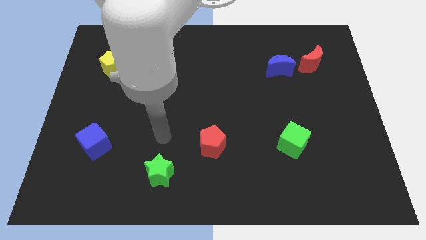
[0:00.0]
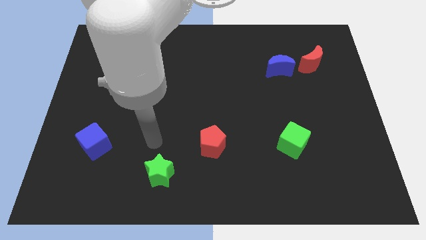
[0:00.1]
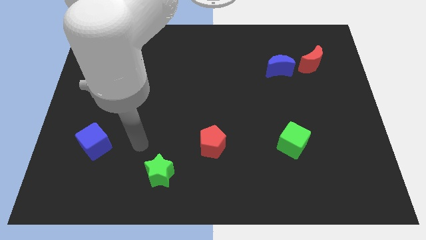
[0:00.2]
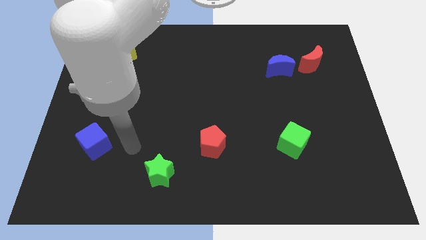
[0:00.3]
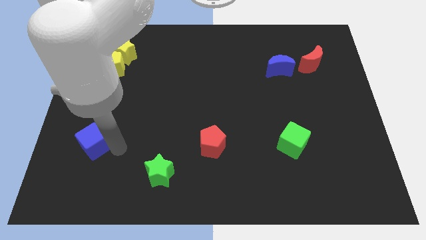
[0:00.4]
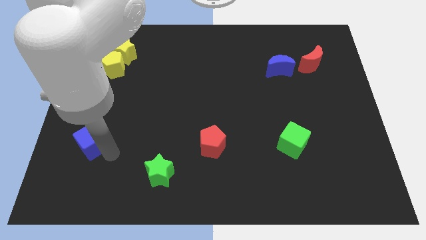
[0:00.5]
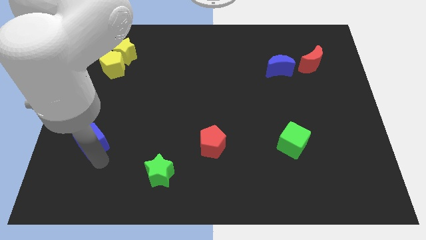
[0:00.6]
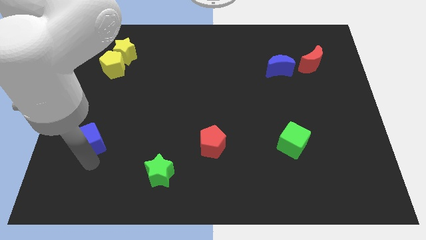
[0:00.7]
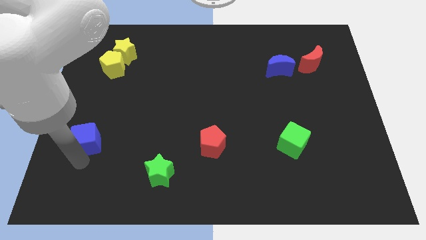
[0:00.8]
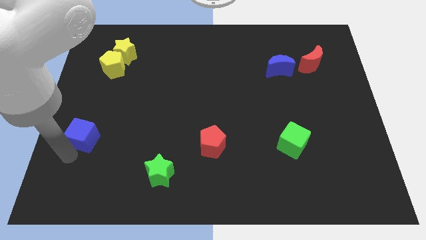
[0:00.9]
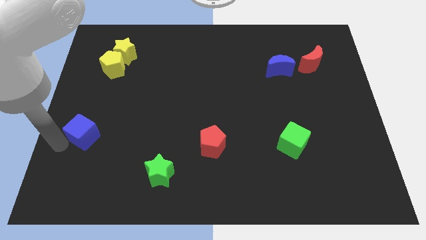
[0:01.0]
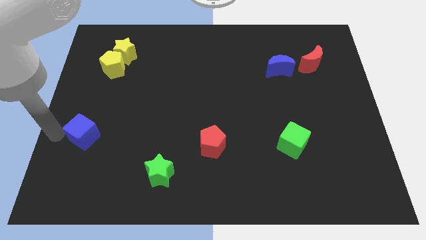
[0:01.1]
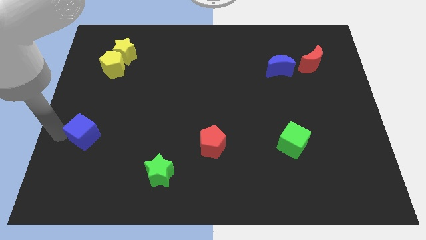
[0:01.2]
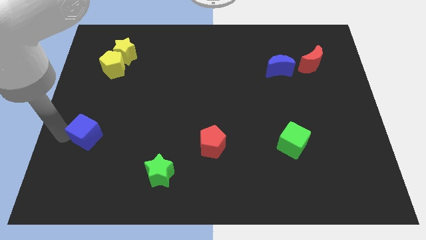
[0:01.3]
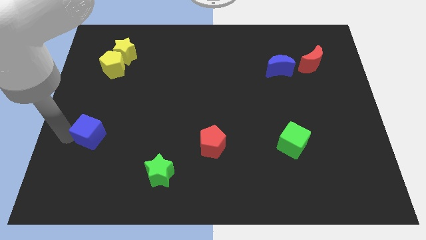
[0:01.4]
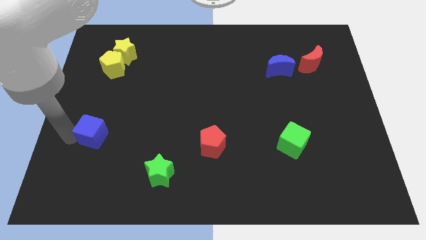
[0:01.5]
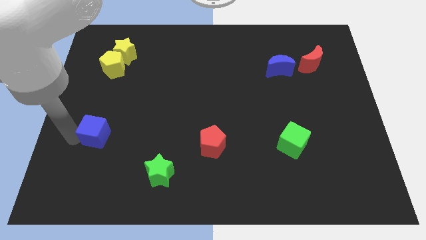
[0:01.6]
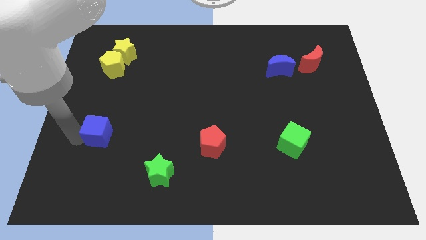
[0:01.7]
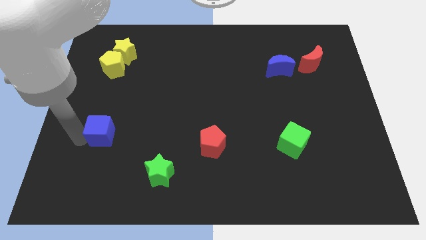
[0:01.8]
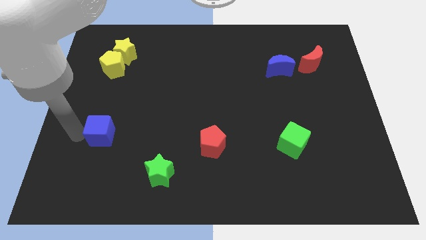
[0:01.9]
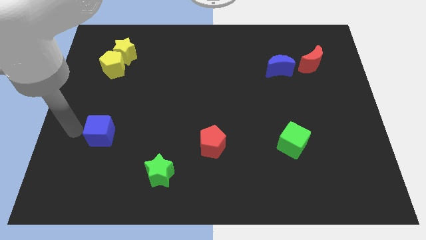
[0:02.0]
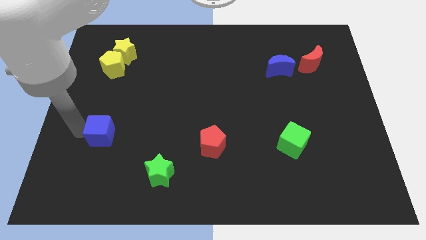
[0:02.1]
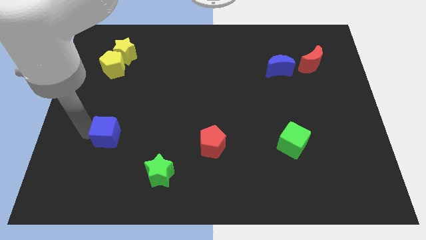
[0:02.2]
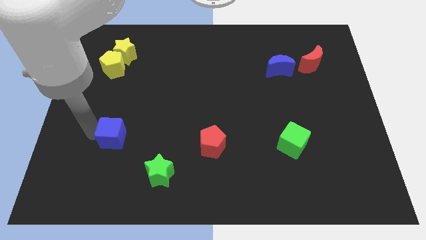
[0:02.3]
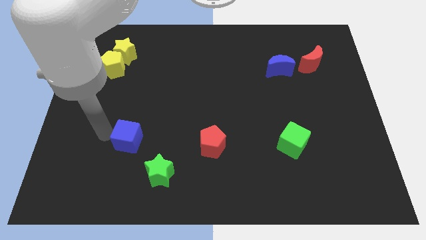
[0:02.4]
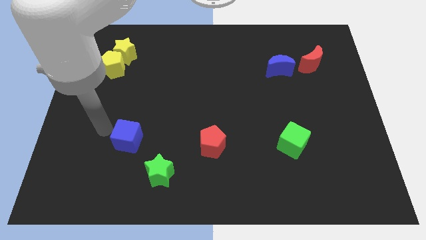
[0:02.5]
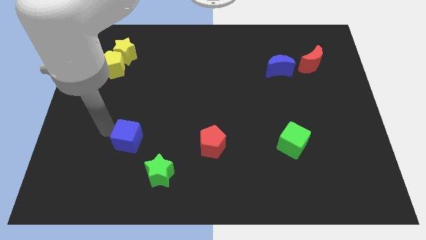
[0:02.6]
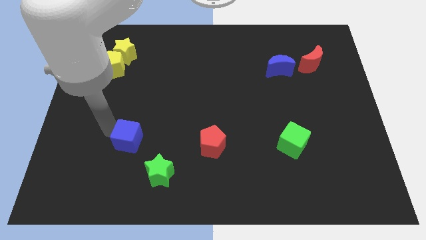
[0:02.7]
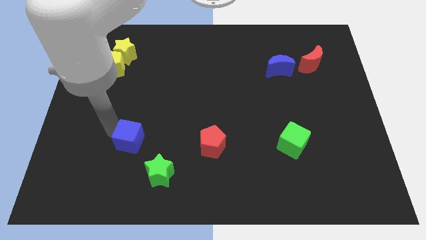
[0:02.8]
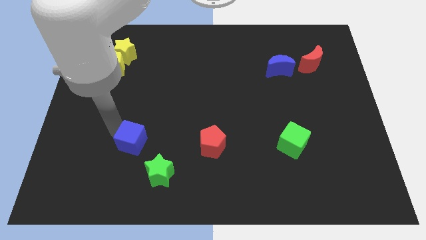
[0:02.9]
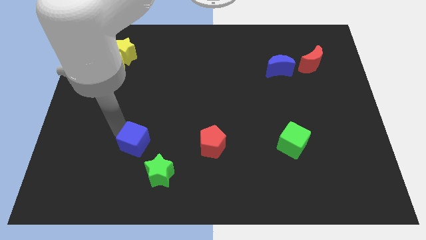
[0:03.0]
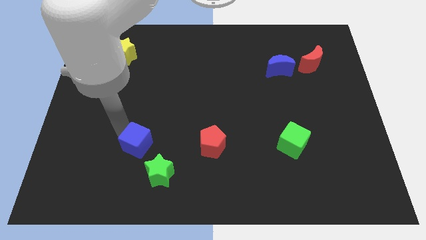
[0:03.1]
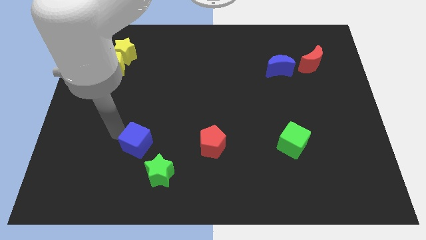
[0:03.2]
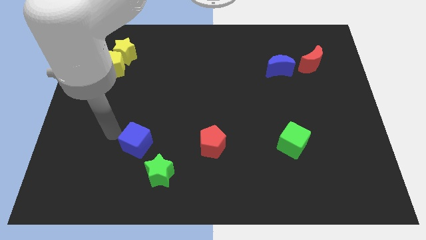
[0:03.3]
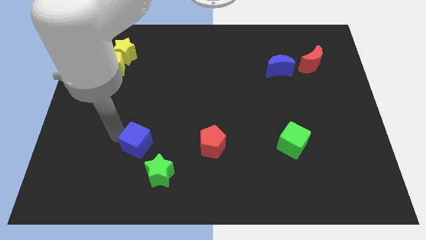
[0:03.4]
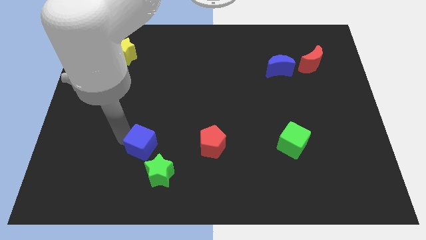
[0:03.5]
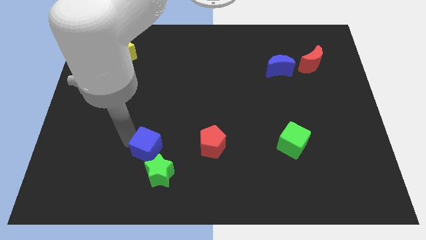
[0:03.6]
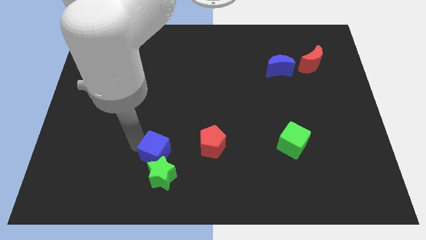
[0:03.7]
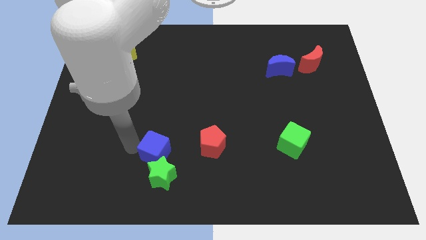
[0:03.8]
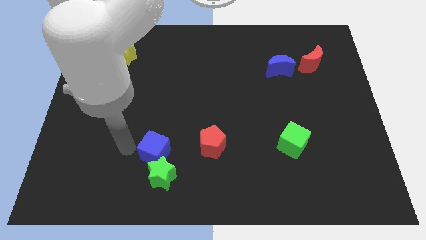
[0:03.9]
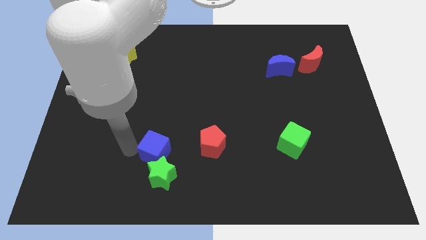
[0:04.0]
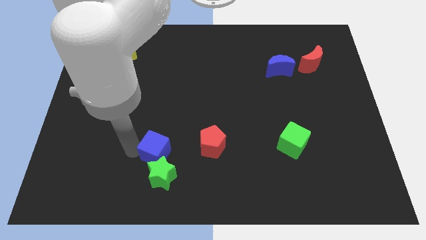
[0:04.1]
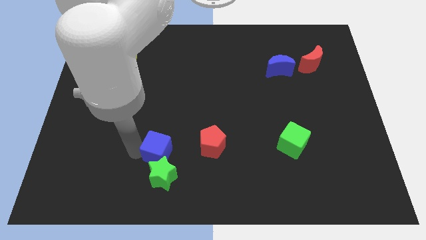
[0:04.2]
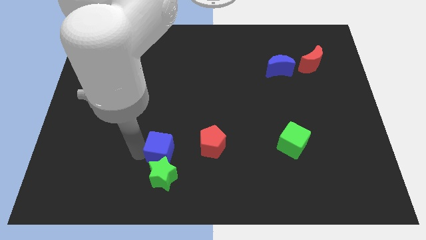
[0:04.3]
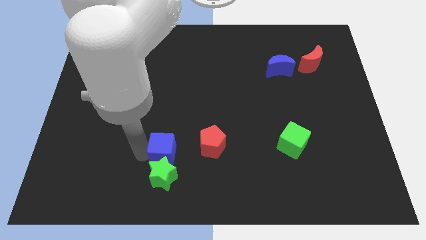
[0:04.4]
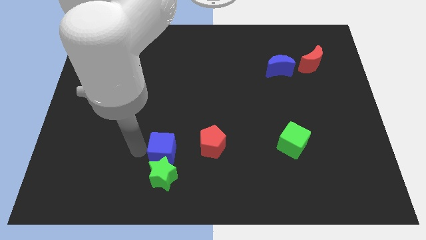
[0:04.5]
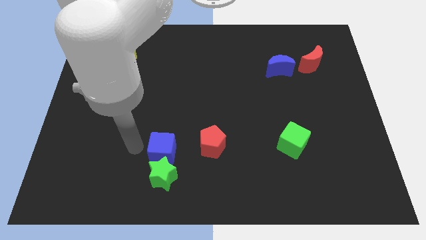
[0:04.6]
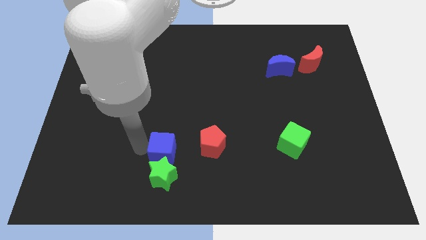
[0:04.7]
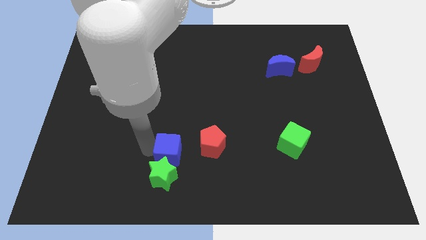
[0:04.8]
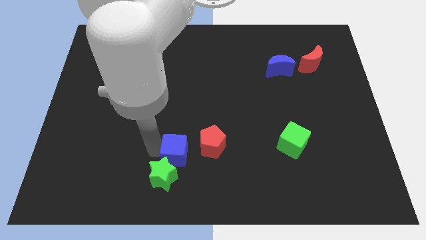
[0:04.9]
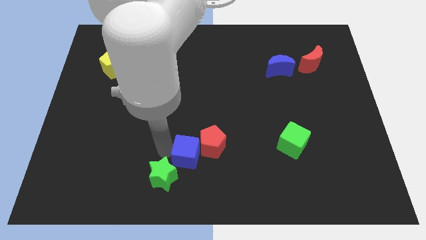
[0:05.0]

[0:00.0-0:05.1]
push the blue cube to the right

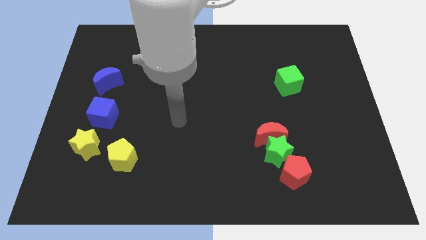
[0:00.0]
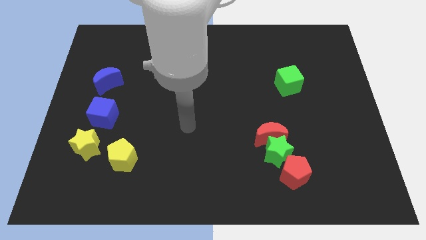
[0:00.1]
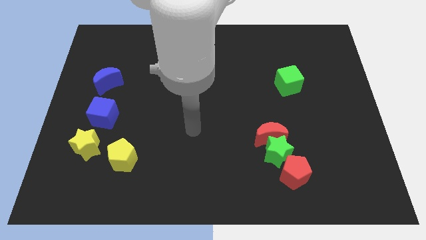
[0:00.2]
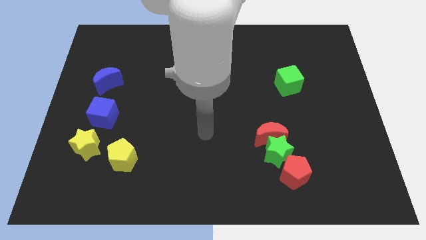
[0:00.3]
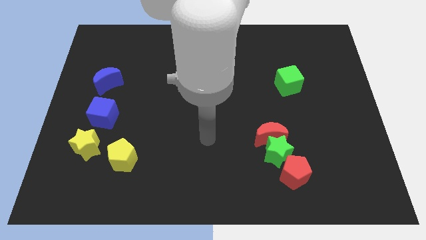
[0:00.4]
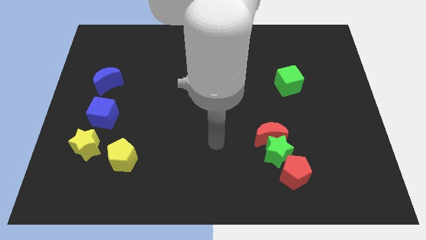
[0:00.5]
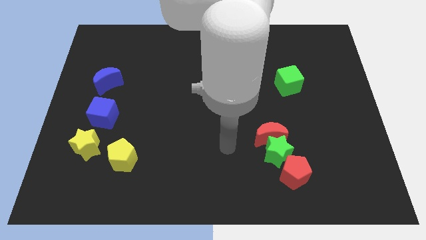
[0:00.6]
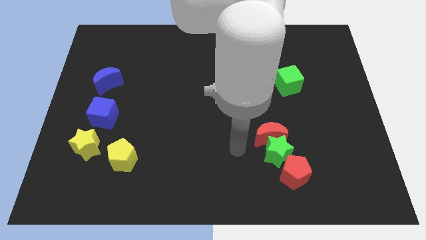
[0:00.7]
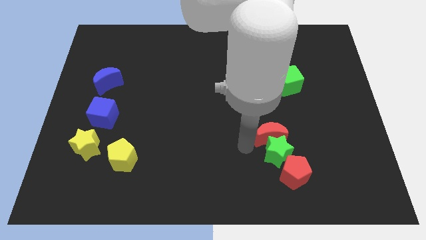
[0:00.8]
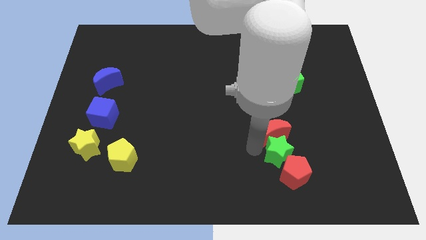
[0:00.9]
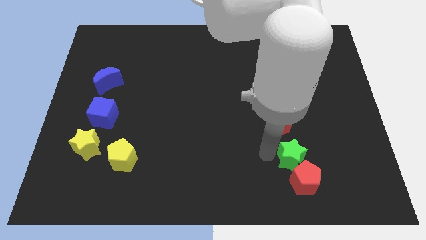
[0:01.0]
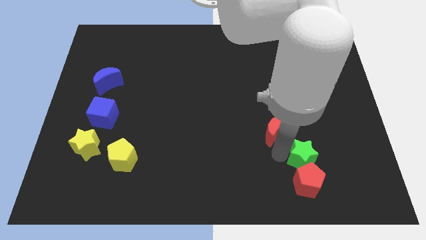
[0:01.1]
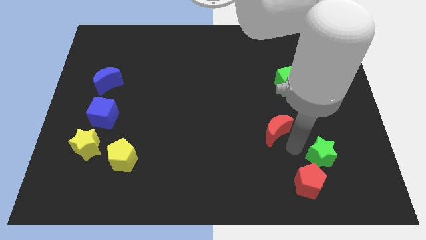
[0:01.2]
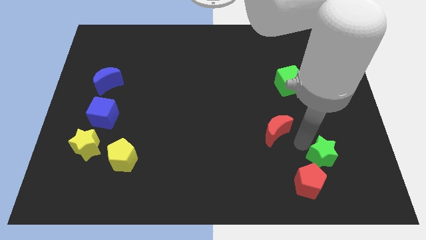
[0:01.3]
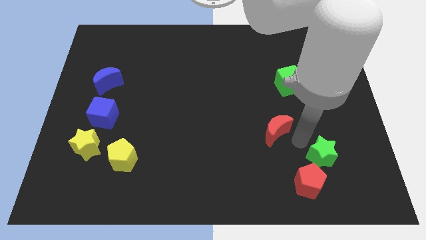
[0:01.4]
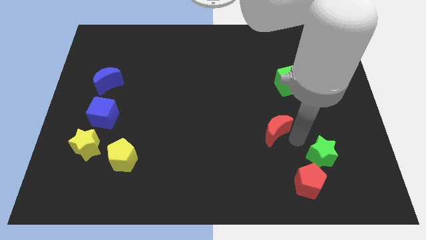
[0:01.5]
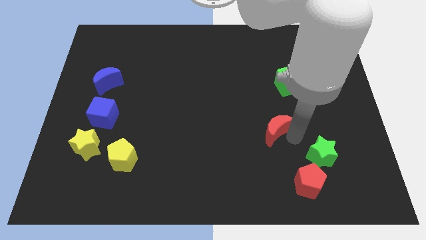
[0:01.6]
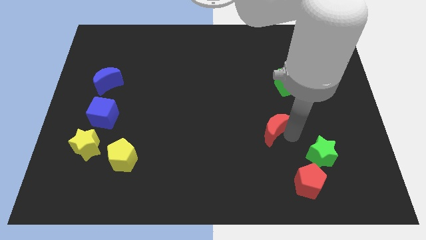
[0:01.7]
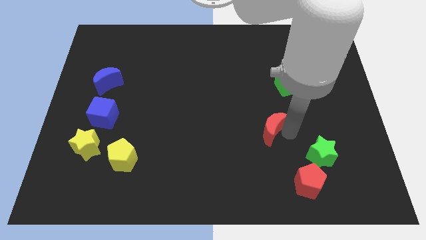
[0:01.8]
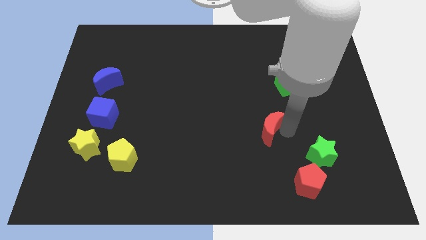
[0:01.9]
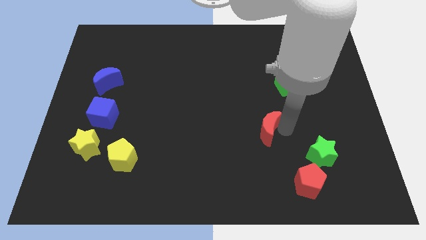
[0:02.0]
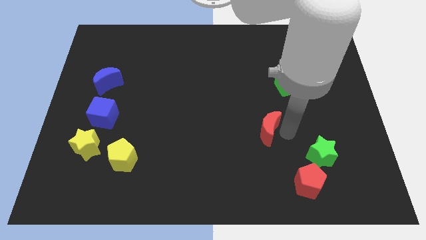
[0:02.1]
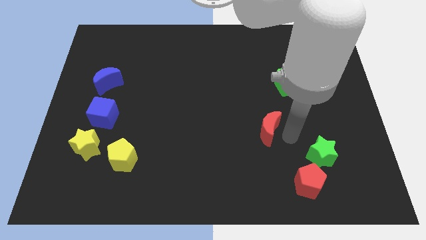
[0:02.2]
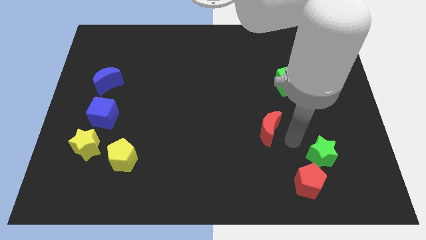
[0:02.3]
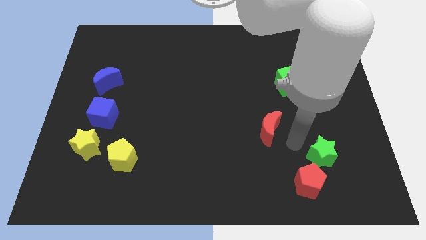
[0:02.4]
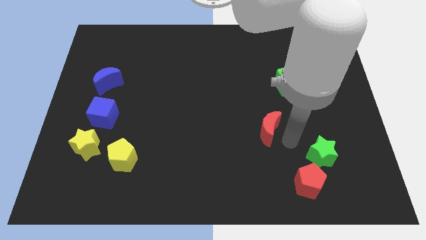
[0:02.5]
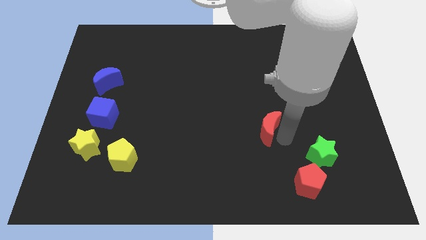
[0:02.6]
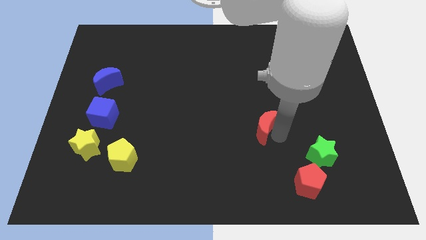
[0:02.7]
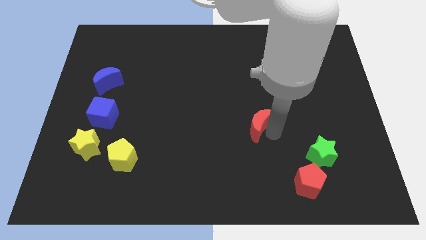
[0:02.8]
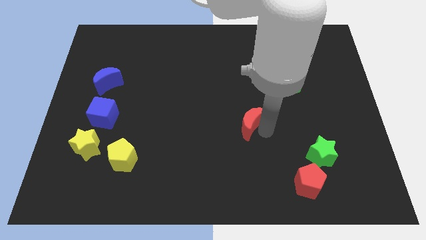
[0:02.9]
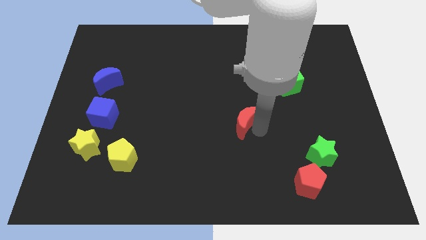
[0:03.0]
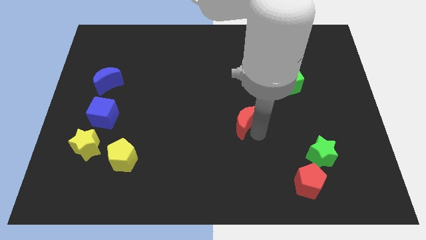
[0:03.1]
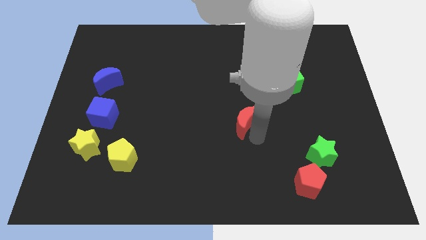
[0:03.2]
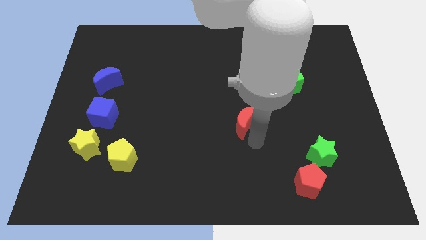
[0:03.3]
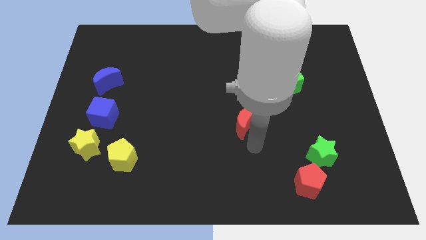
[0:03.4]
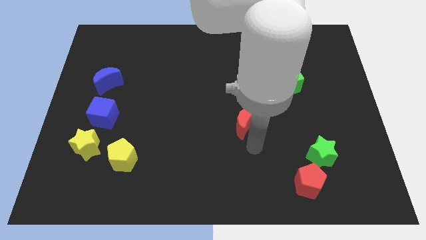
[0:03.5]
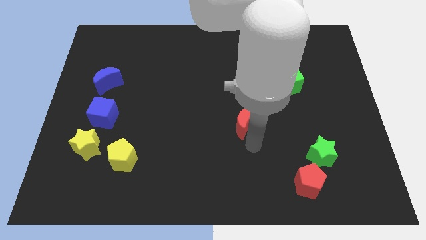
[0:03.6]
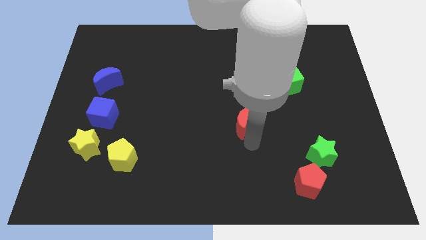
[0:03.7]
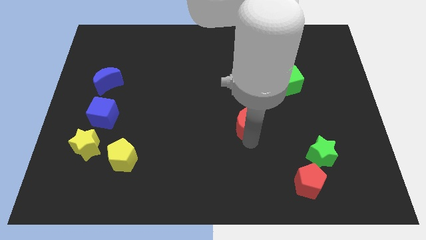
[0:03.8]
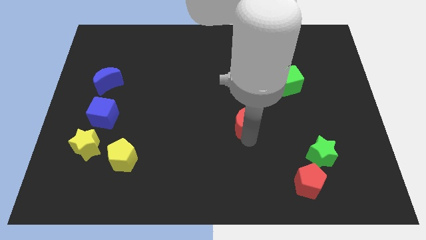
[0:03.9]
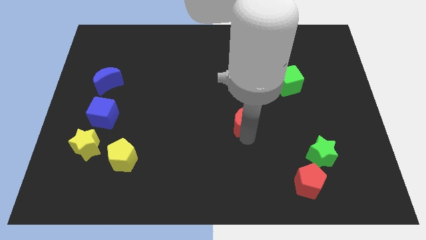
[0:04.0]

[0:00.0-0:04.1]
slightly move the red moon upwards and then left
